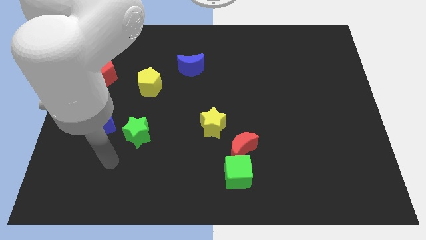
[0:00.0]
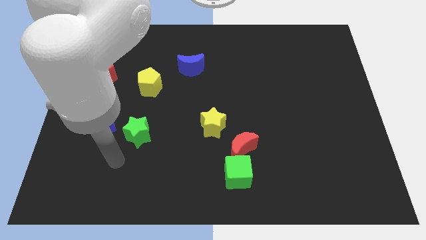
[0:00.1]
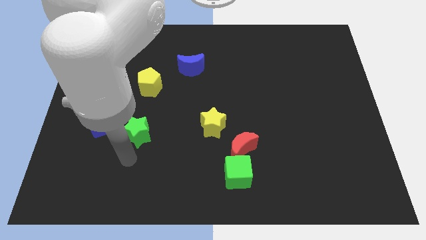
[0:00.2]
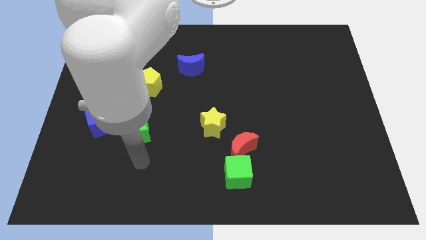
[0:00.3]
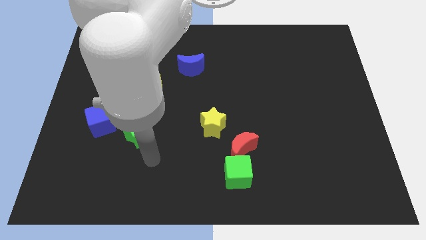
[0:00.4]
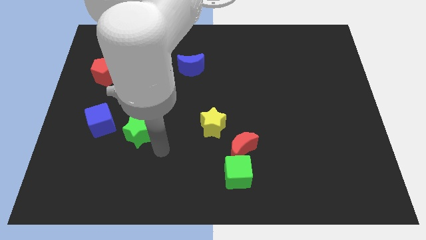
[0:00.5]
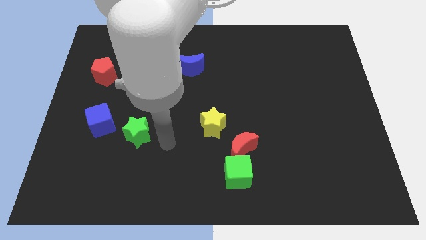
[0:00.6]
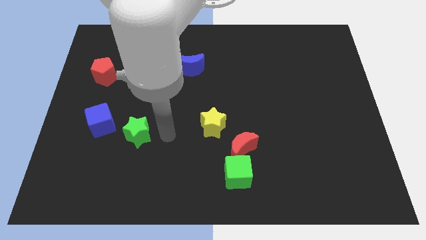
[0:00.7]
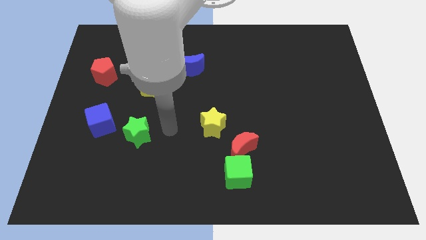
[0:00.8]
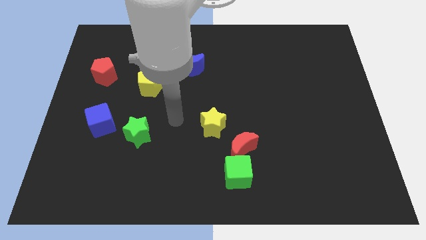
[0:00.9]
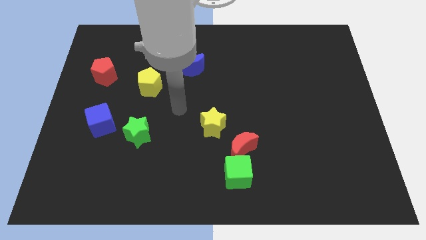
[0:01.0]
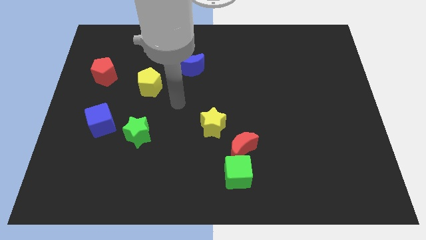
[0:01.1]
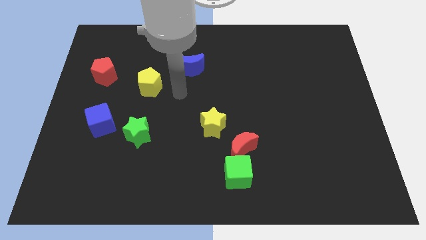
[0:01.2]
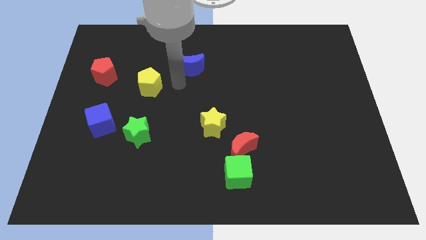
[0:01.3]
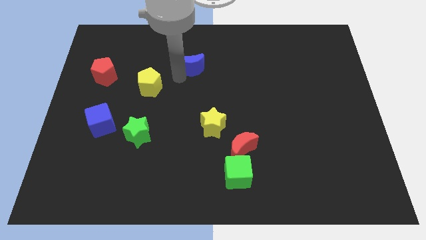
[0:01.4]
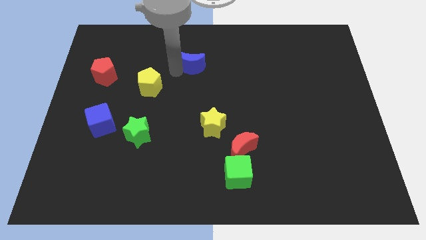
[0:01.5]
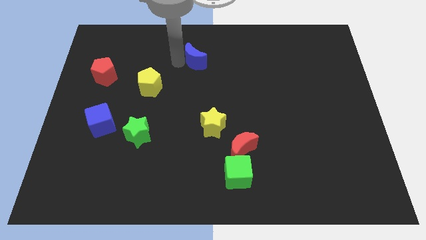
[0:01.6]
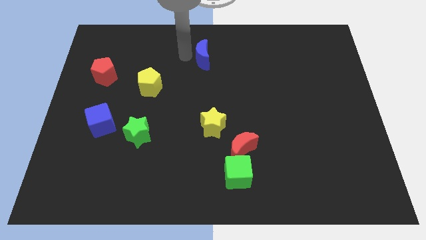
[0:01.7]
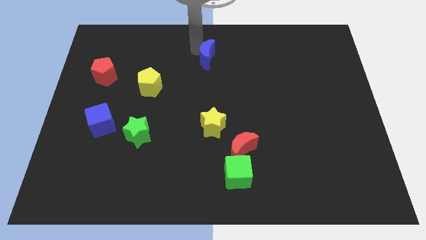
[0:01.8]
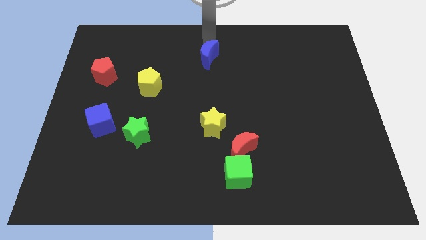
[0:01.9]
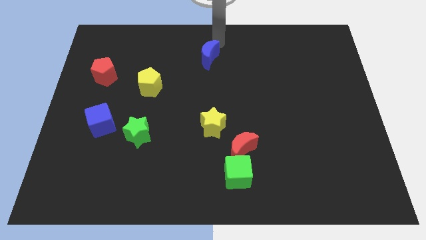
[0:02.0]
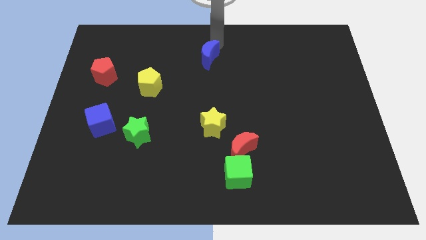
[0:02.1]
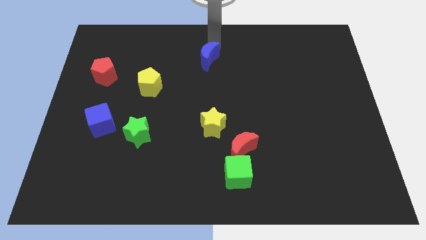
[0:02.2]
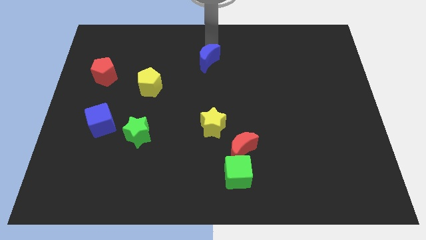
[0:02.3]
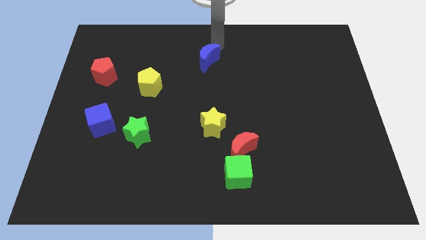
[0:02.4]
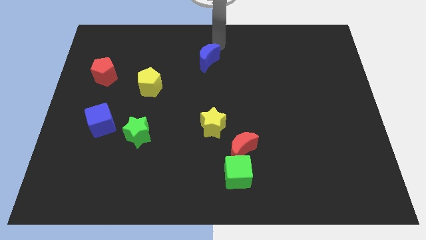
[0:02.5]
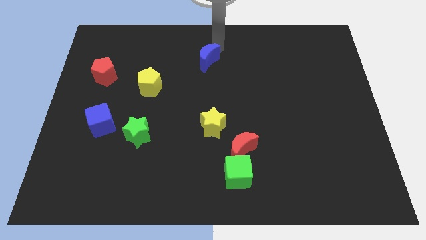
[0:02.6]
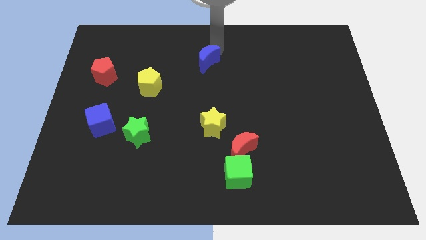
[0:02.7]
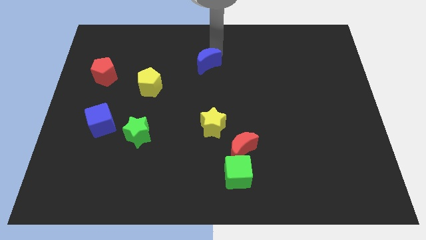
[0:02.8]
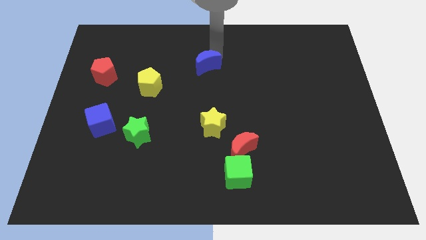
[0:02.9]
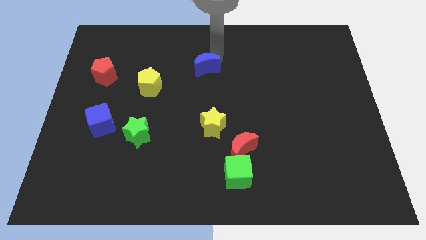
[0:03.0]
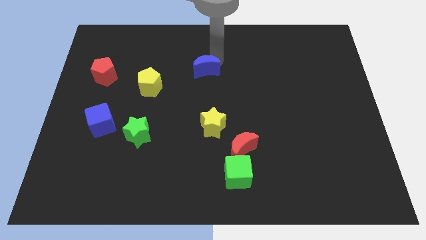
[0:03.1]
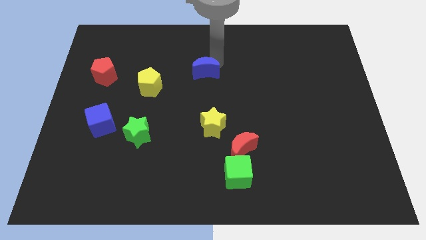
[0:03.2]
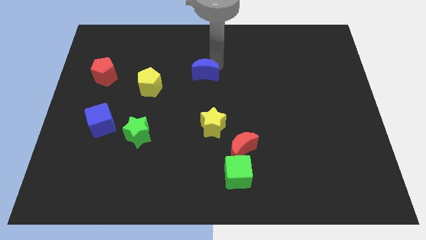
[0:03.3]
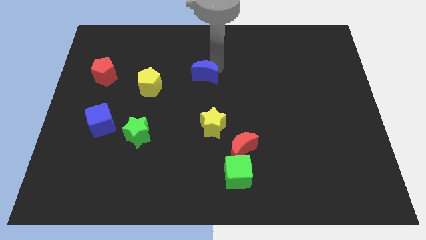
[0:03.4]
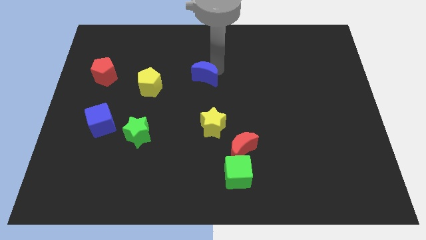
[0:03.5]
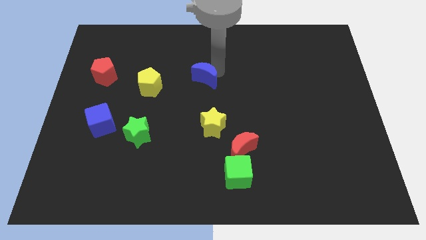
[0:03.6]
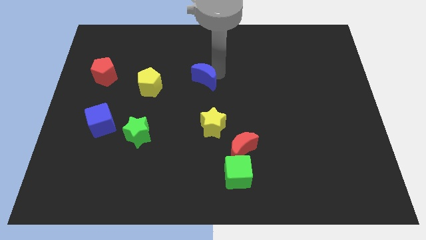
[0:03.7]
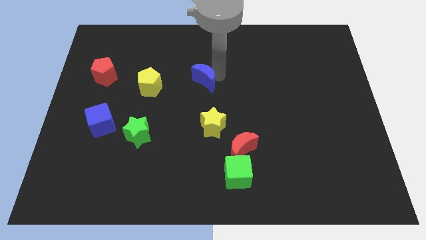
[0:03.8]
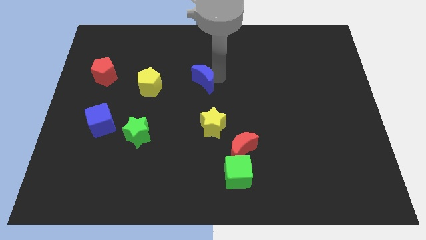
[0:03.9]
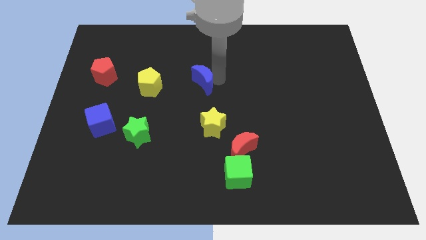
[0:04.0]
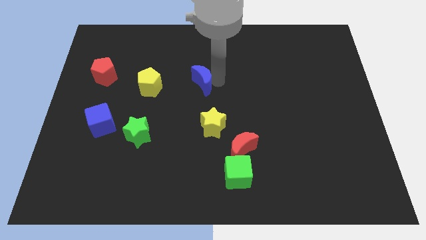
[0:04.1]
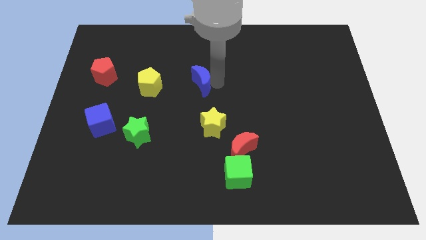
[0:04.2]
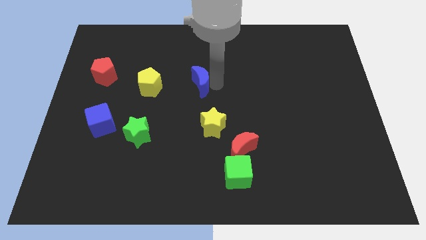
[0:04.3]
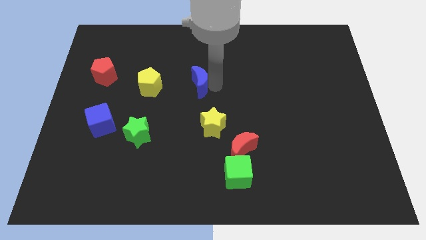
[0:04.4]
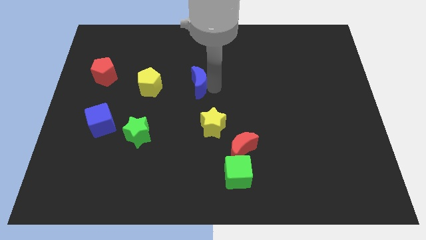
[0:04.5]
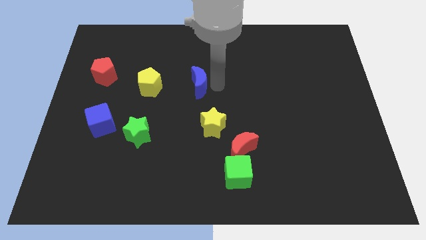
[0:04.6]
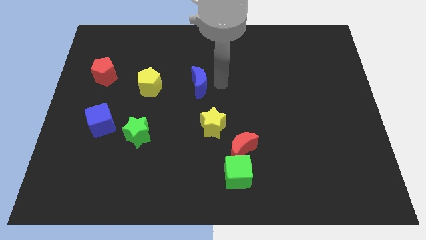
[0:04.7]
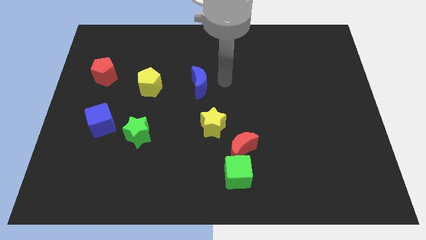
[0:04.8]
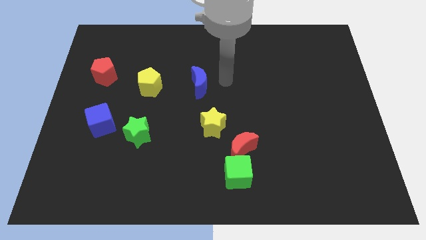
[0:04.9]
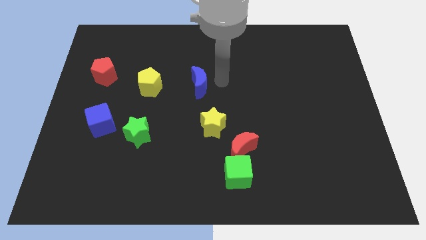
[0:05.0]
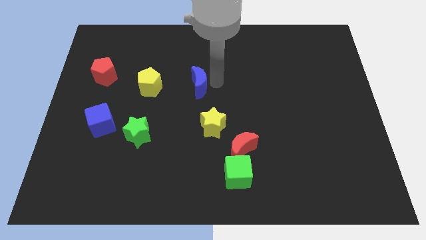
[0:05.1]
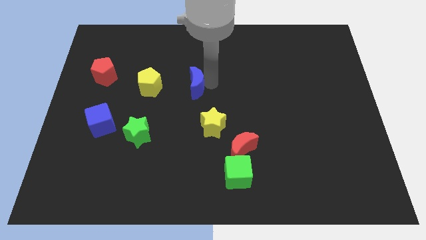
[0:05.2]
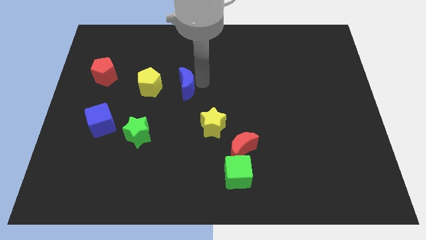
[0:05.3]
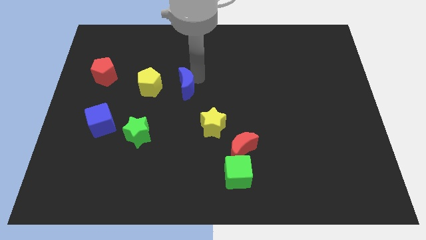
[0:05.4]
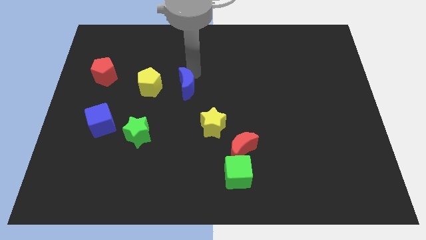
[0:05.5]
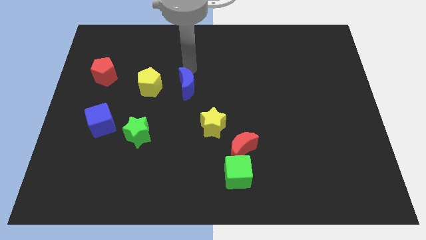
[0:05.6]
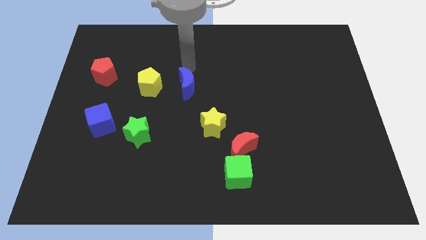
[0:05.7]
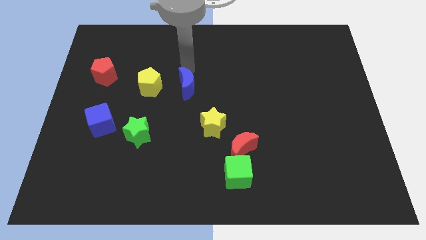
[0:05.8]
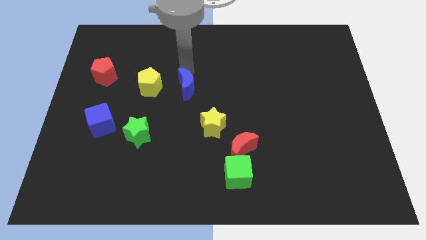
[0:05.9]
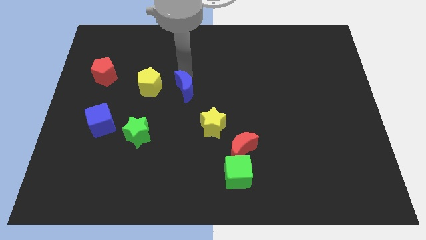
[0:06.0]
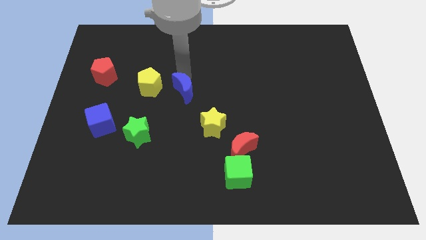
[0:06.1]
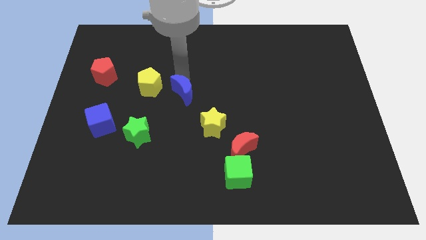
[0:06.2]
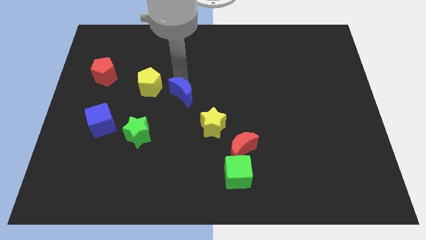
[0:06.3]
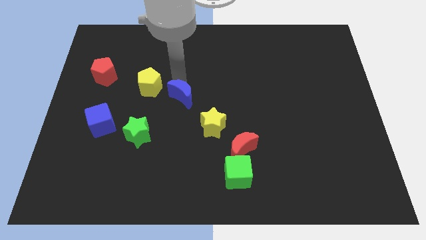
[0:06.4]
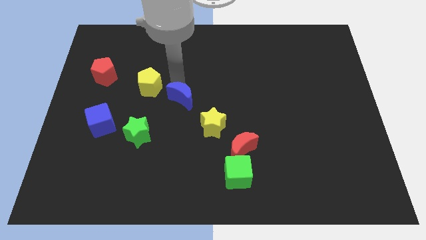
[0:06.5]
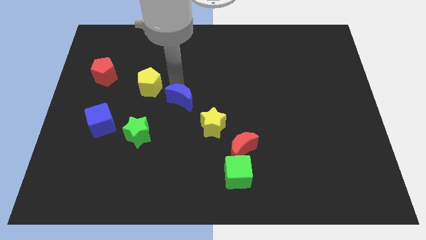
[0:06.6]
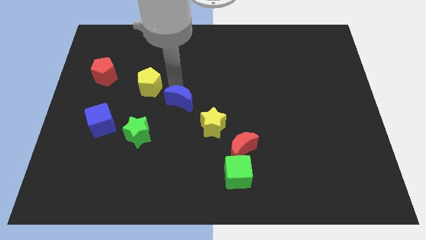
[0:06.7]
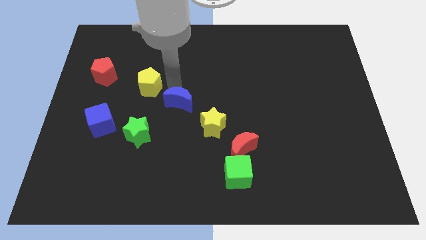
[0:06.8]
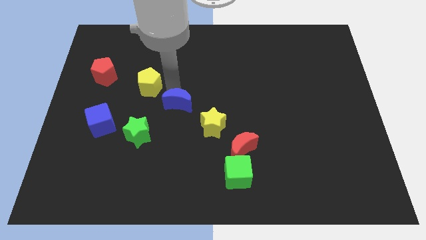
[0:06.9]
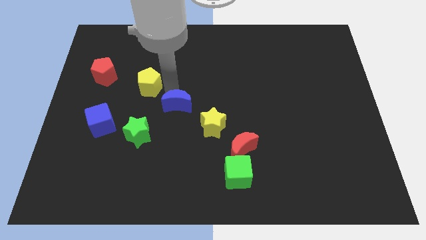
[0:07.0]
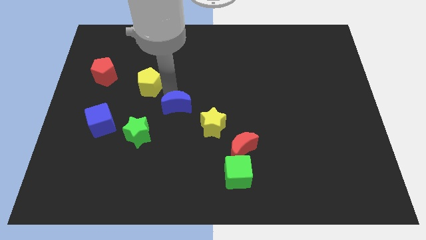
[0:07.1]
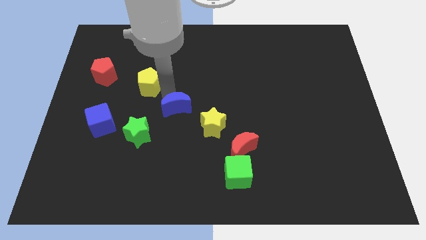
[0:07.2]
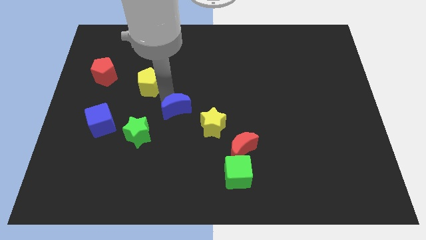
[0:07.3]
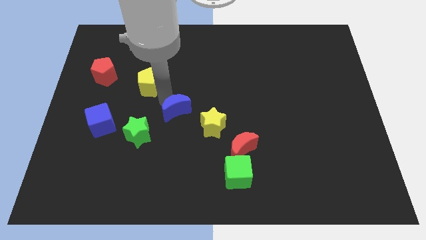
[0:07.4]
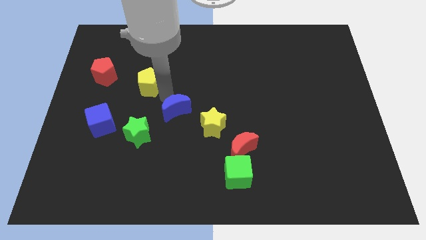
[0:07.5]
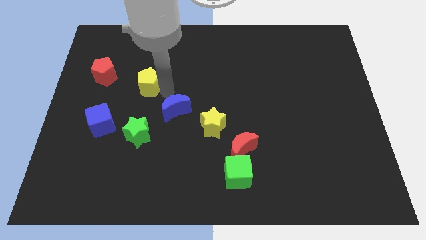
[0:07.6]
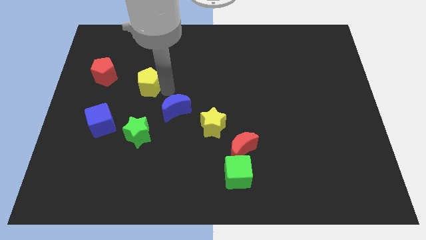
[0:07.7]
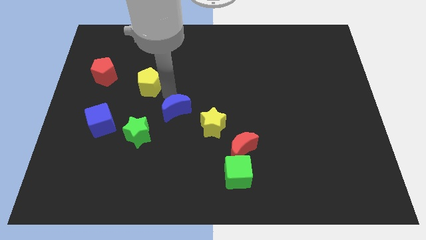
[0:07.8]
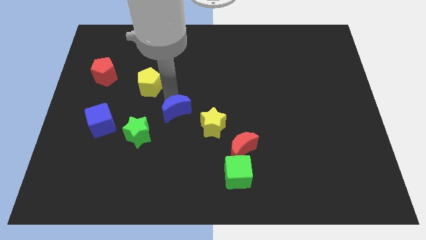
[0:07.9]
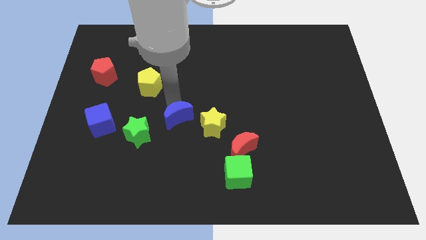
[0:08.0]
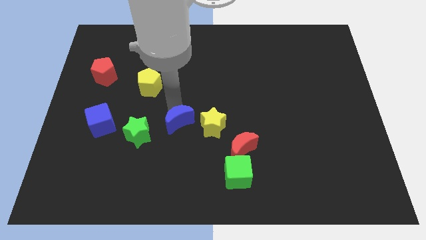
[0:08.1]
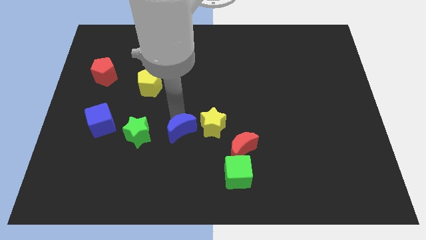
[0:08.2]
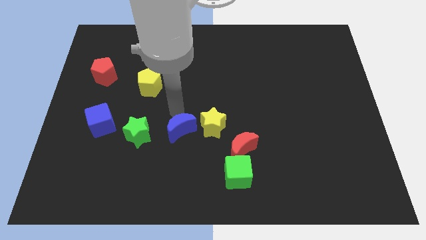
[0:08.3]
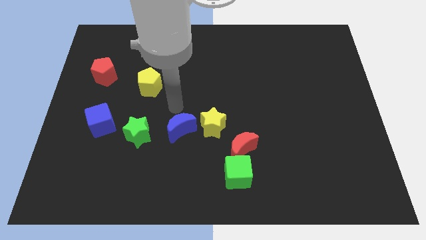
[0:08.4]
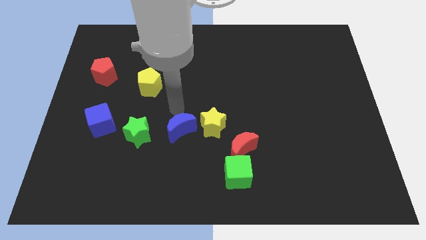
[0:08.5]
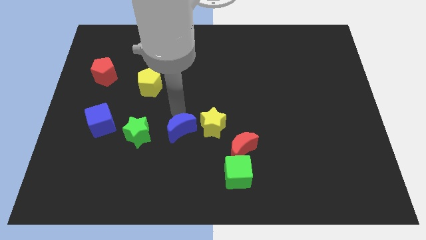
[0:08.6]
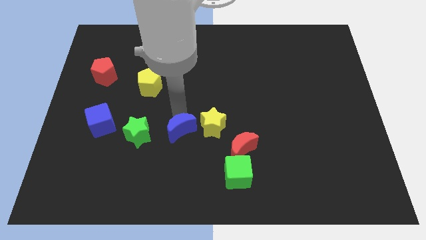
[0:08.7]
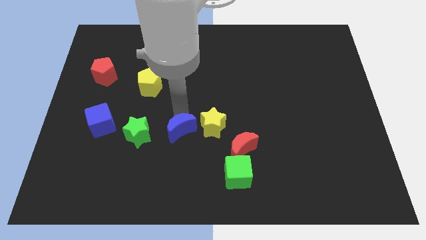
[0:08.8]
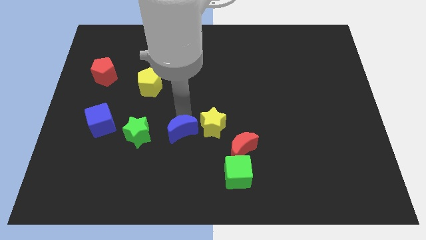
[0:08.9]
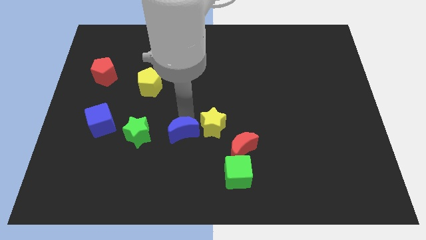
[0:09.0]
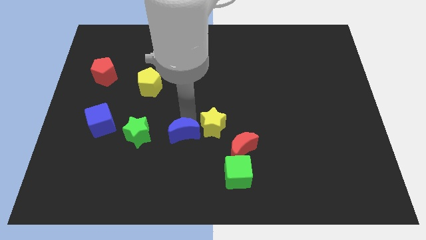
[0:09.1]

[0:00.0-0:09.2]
push the blue moon downwards
